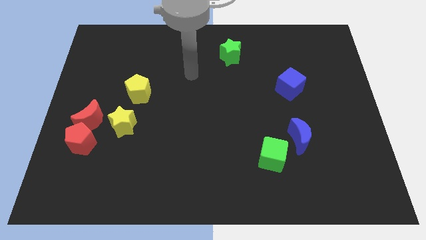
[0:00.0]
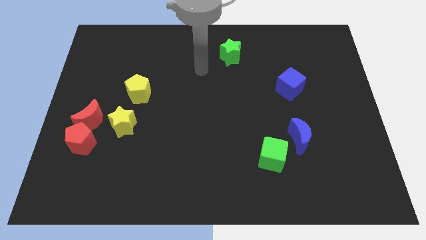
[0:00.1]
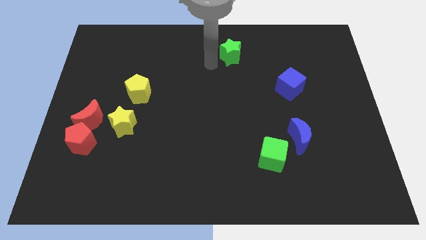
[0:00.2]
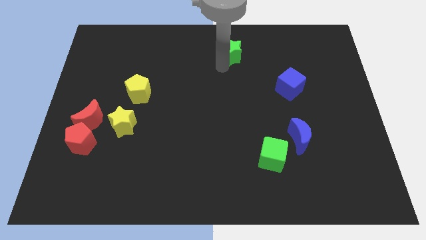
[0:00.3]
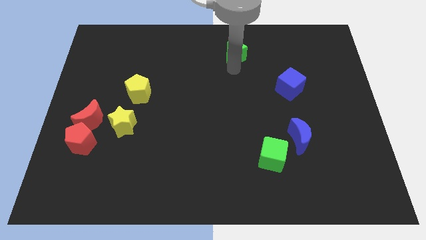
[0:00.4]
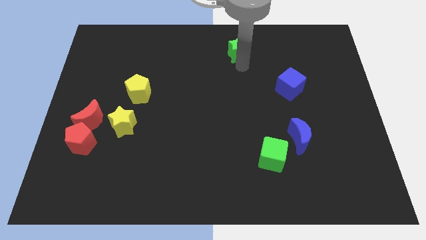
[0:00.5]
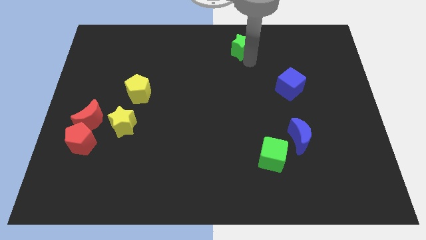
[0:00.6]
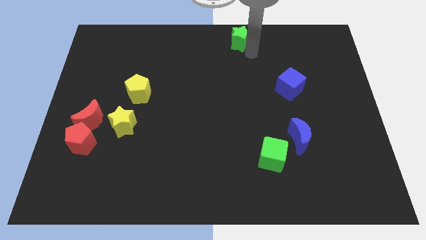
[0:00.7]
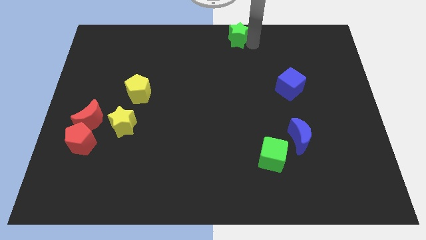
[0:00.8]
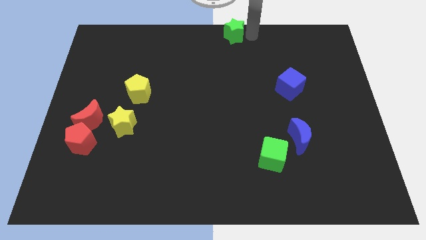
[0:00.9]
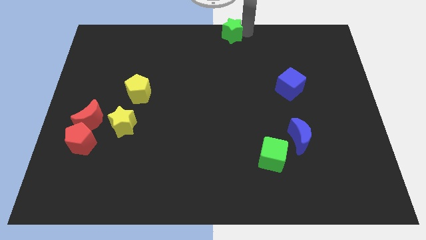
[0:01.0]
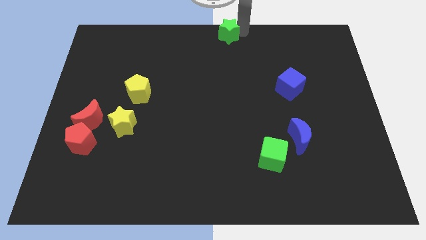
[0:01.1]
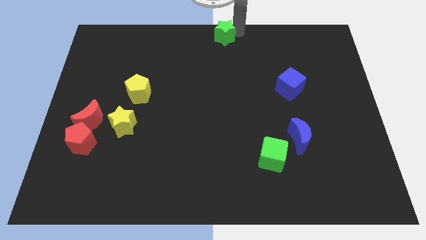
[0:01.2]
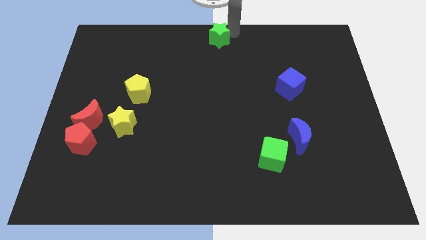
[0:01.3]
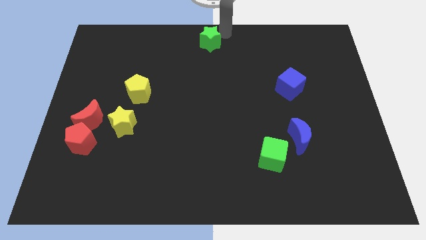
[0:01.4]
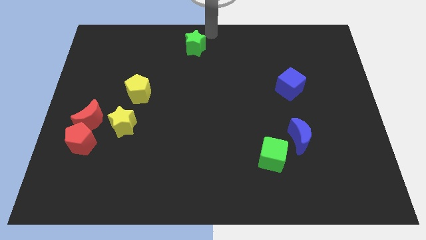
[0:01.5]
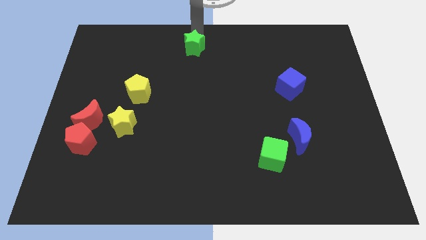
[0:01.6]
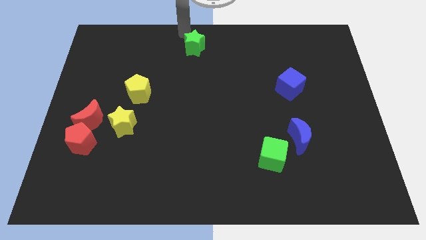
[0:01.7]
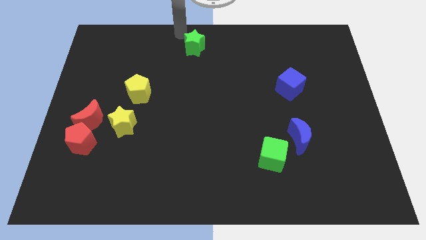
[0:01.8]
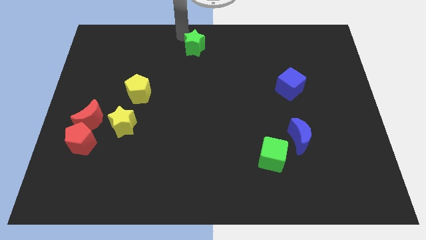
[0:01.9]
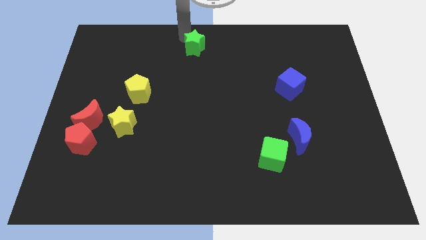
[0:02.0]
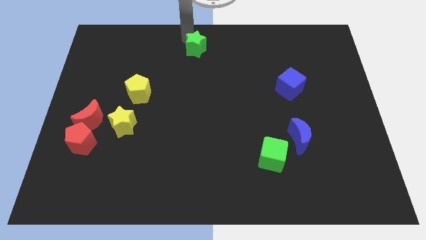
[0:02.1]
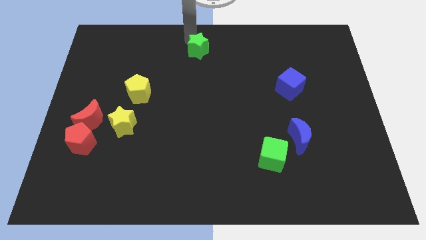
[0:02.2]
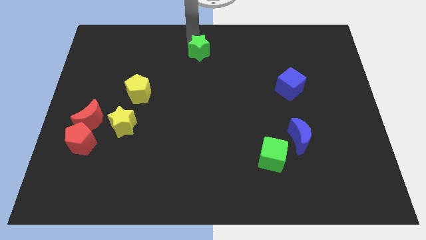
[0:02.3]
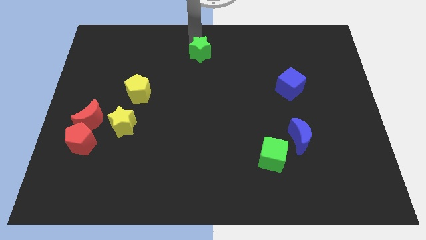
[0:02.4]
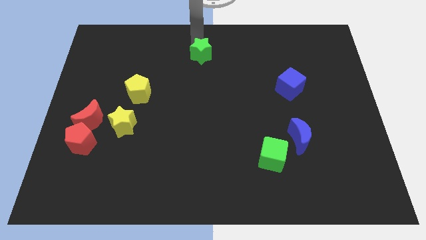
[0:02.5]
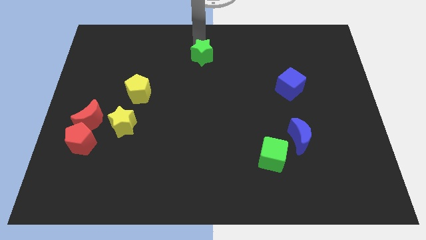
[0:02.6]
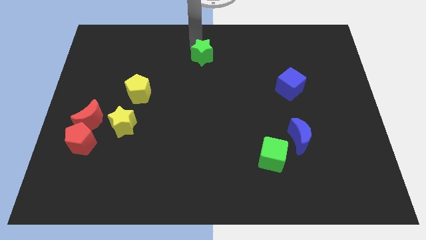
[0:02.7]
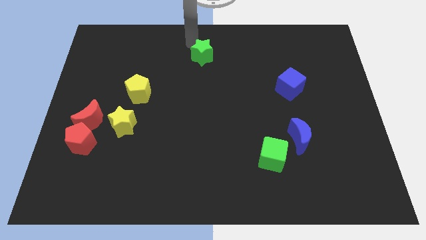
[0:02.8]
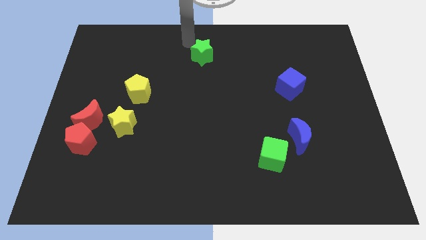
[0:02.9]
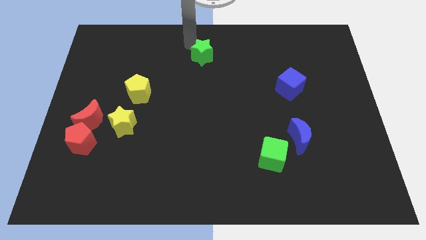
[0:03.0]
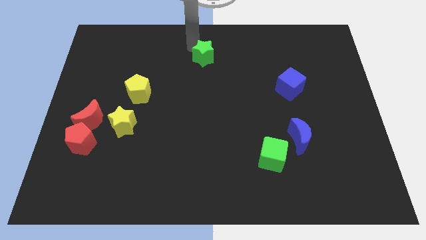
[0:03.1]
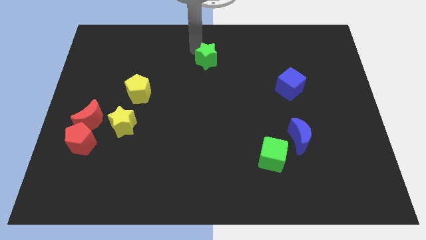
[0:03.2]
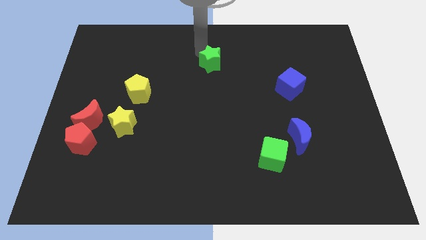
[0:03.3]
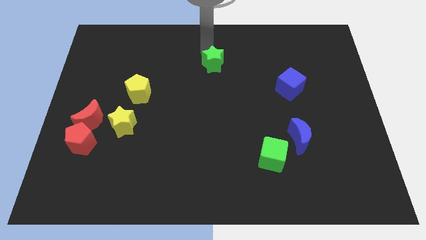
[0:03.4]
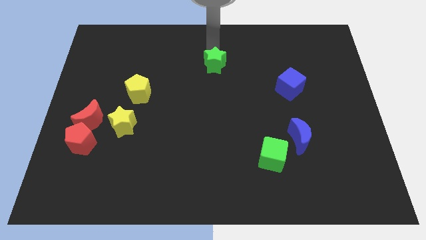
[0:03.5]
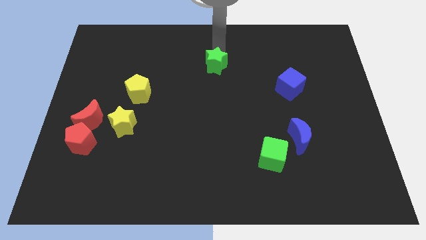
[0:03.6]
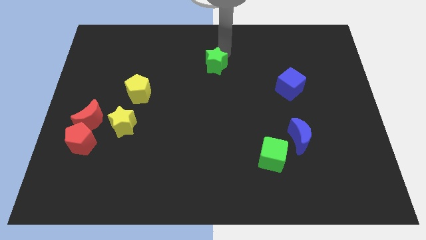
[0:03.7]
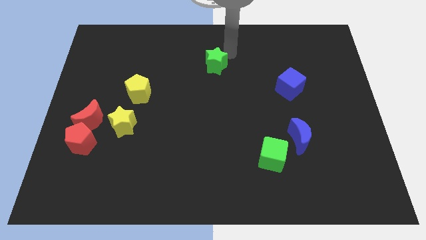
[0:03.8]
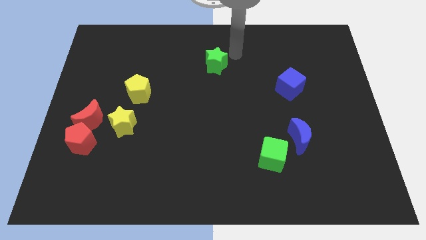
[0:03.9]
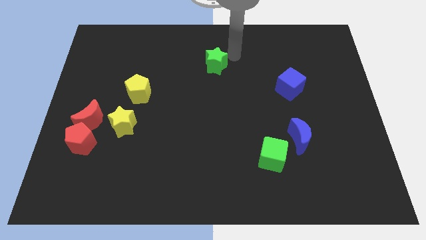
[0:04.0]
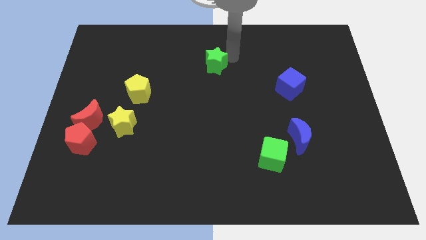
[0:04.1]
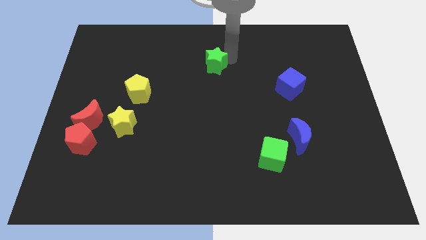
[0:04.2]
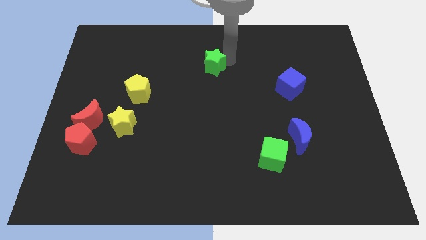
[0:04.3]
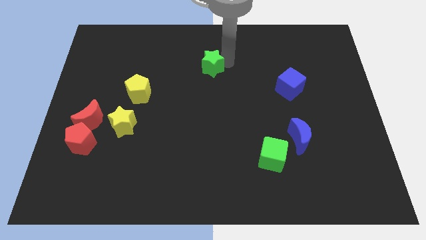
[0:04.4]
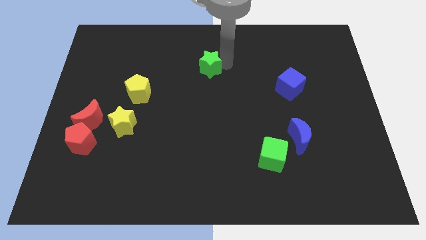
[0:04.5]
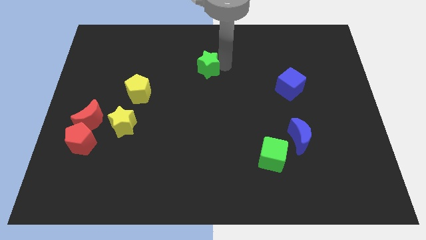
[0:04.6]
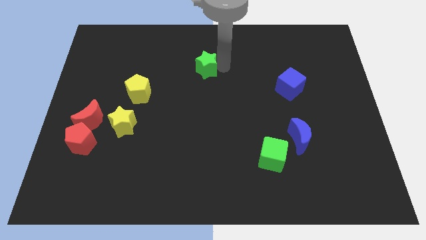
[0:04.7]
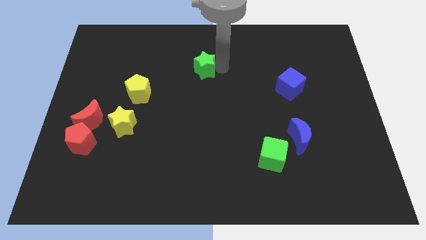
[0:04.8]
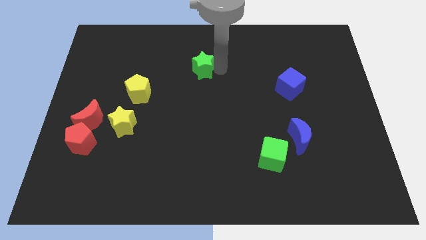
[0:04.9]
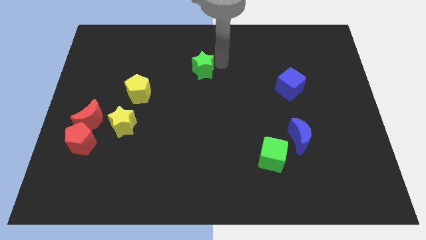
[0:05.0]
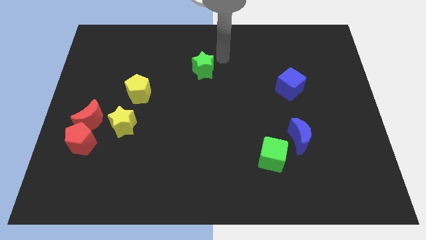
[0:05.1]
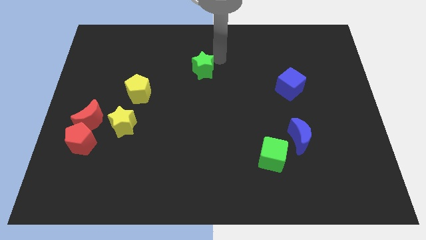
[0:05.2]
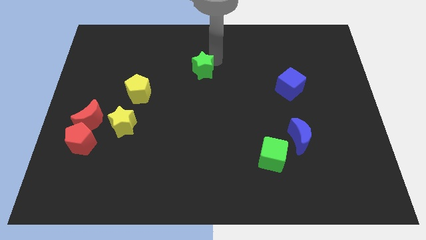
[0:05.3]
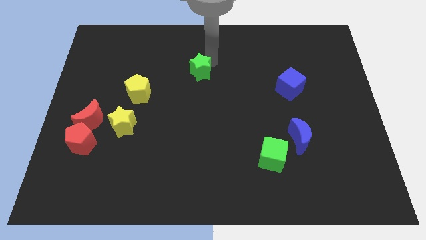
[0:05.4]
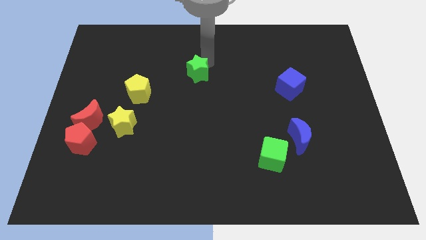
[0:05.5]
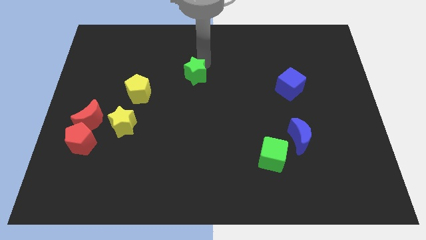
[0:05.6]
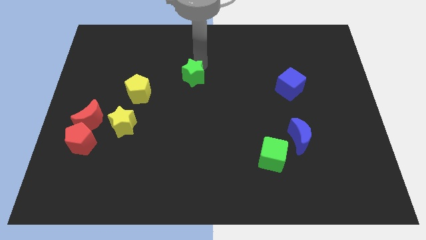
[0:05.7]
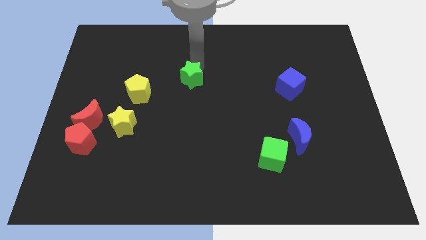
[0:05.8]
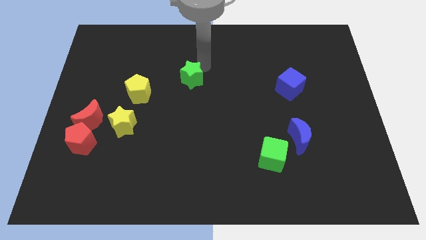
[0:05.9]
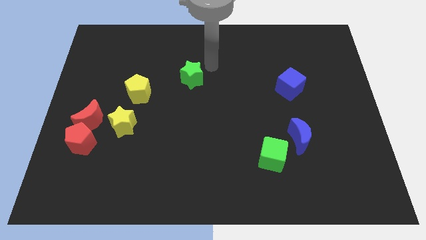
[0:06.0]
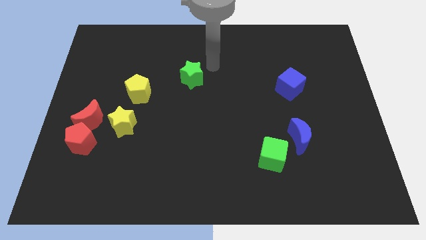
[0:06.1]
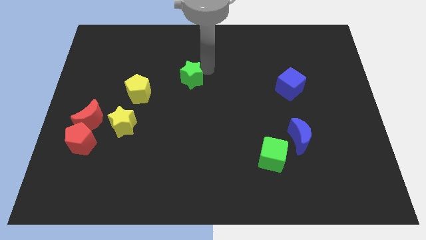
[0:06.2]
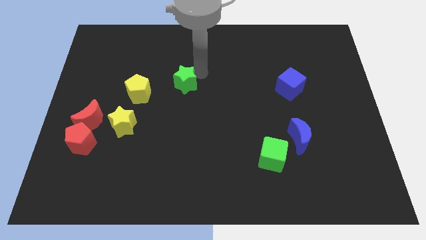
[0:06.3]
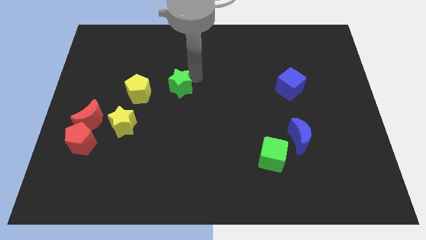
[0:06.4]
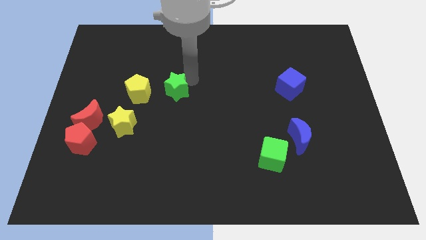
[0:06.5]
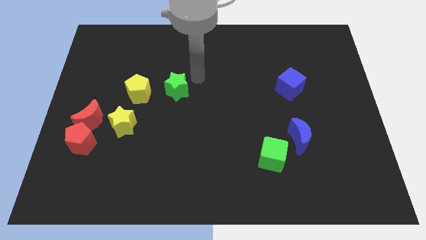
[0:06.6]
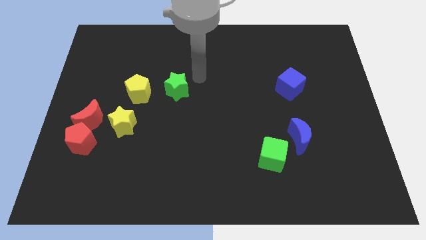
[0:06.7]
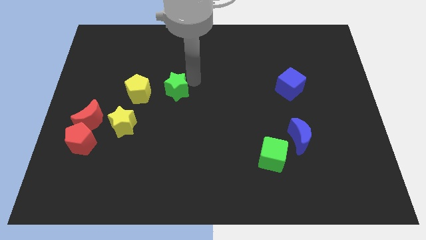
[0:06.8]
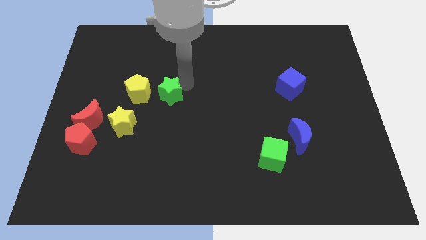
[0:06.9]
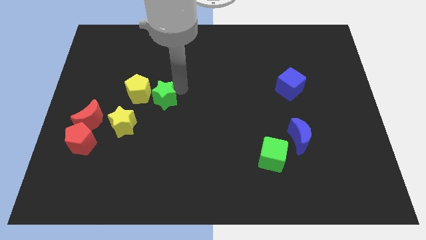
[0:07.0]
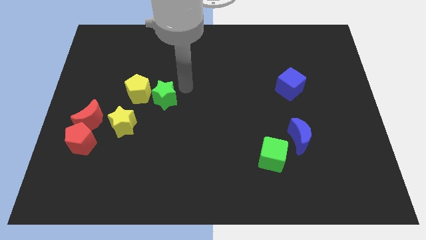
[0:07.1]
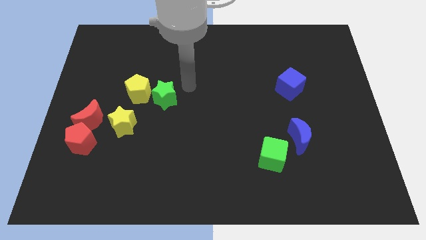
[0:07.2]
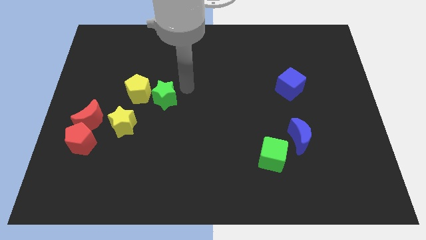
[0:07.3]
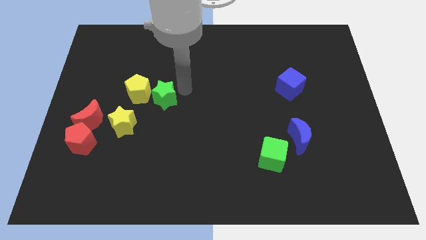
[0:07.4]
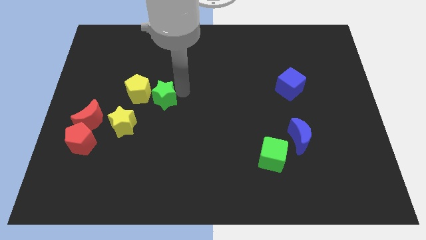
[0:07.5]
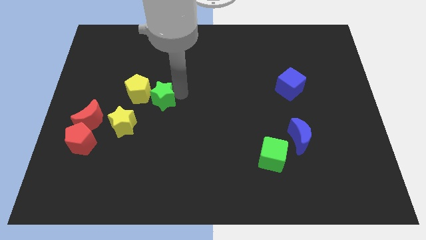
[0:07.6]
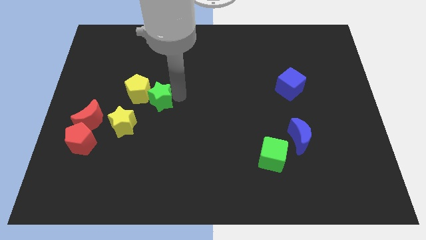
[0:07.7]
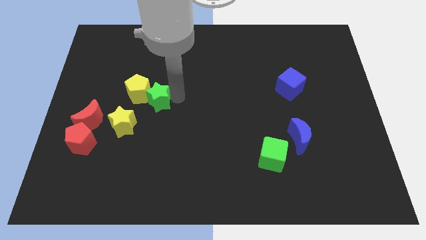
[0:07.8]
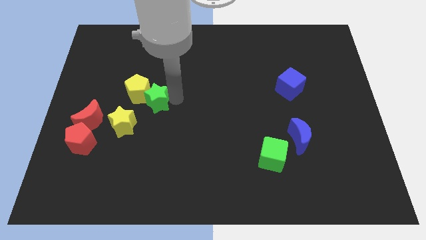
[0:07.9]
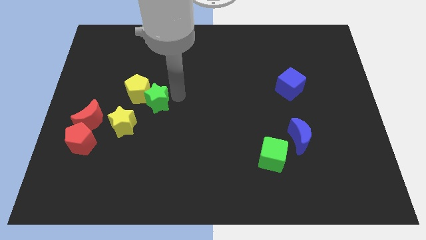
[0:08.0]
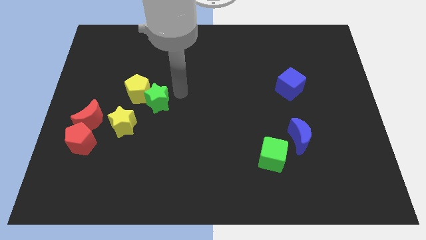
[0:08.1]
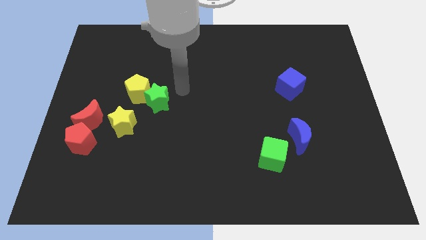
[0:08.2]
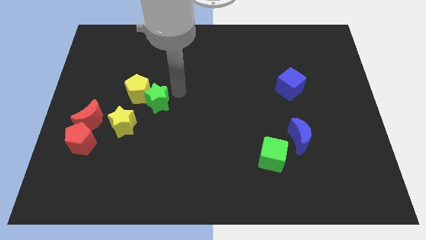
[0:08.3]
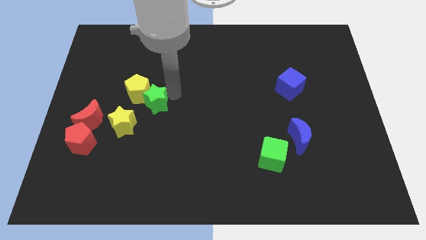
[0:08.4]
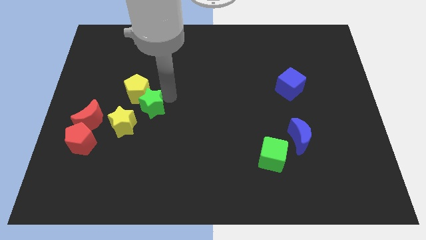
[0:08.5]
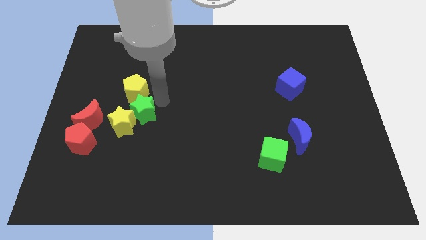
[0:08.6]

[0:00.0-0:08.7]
move the green star next to the yellow star

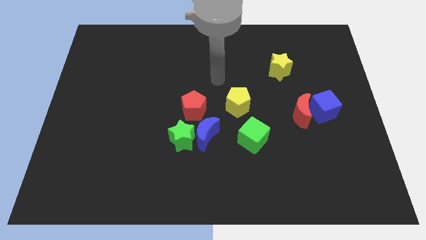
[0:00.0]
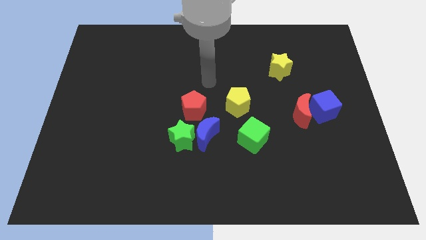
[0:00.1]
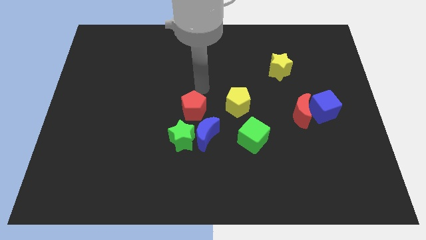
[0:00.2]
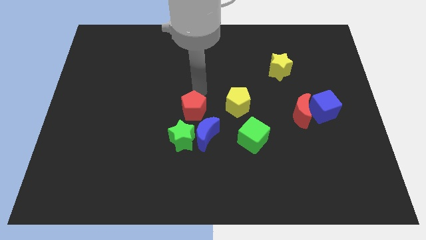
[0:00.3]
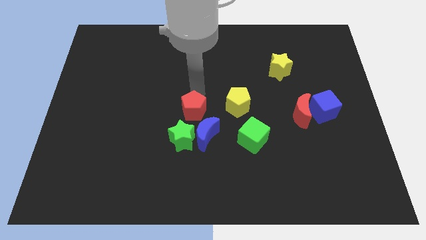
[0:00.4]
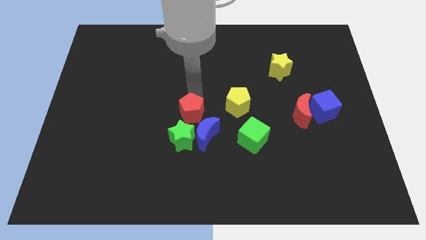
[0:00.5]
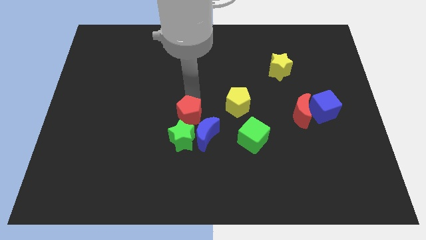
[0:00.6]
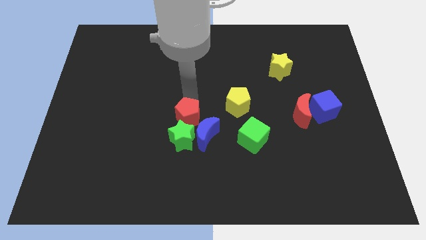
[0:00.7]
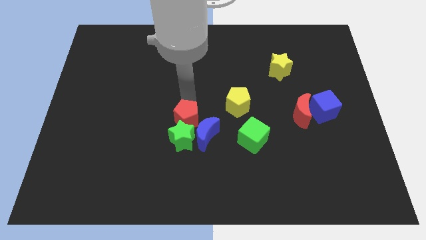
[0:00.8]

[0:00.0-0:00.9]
slide the red pentagon to the green star
